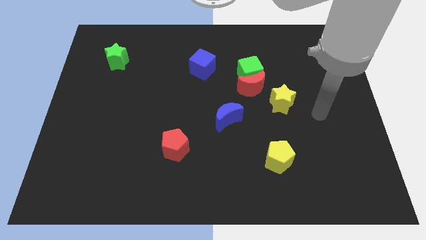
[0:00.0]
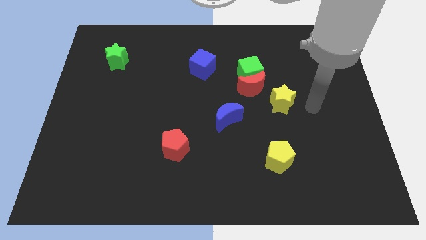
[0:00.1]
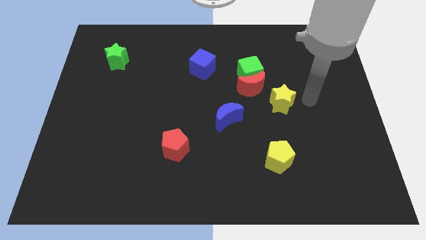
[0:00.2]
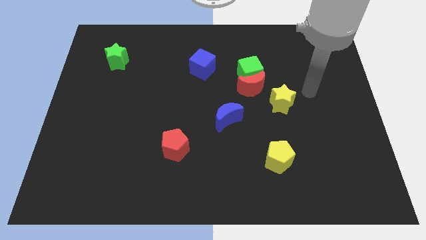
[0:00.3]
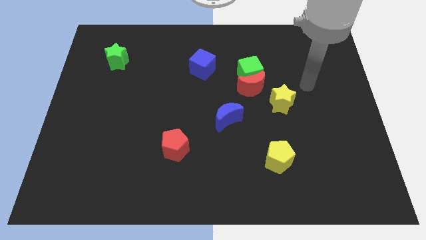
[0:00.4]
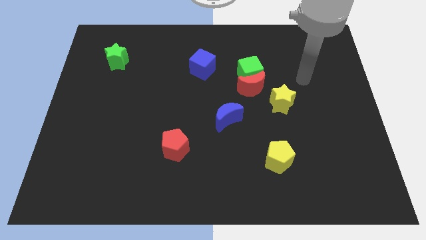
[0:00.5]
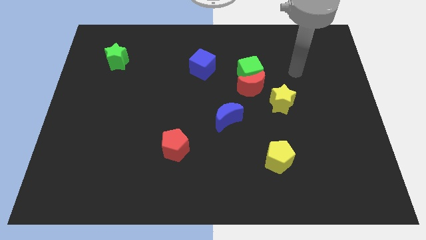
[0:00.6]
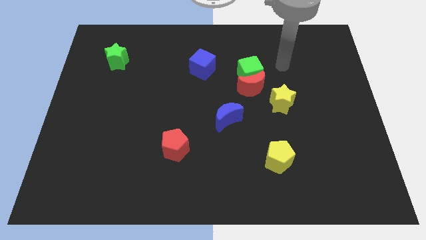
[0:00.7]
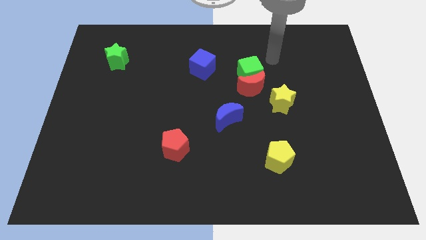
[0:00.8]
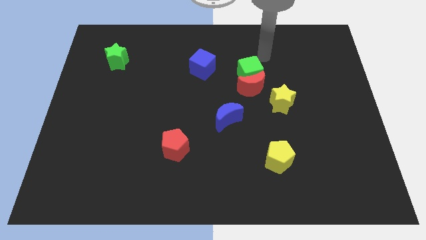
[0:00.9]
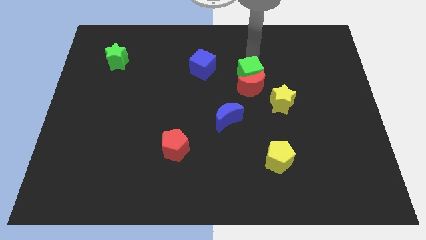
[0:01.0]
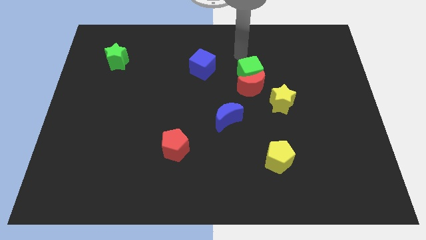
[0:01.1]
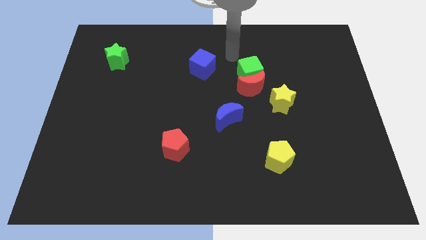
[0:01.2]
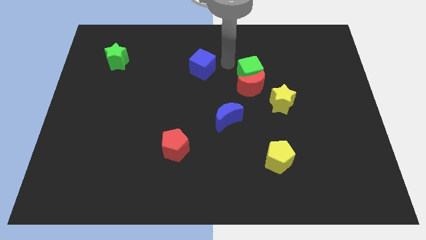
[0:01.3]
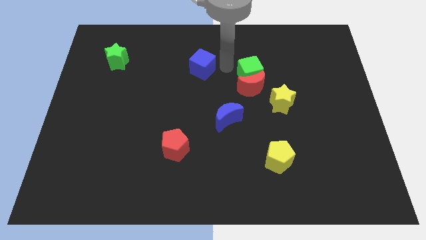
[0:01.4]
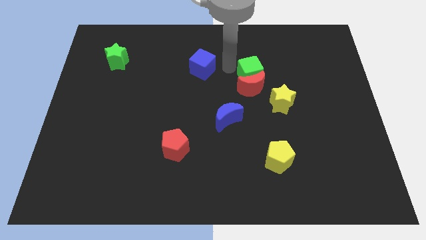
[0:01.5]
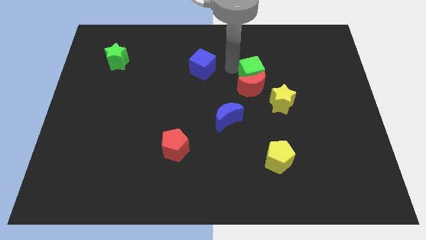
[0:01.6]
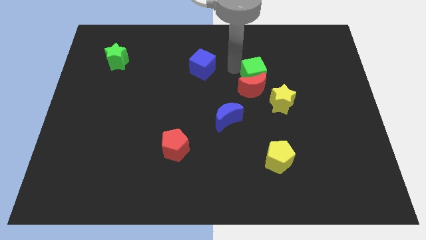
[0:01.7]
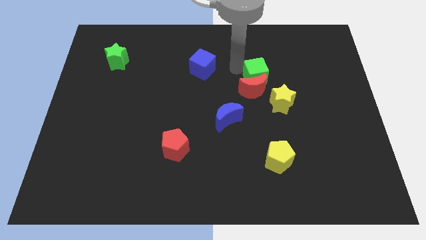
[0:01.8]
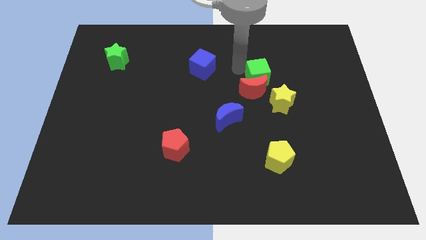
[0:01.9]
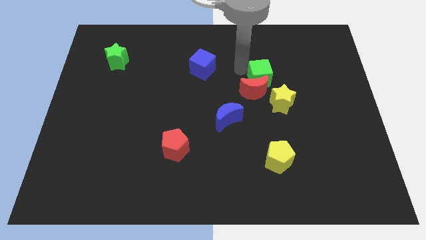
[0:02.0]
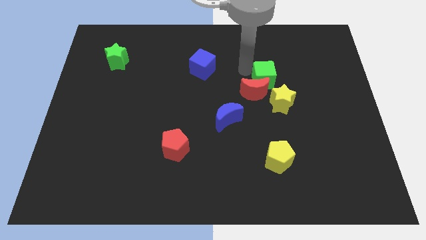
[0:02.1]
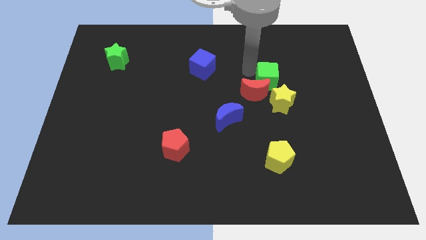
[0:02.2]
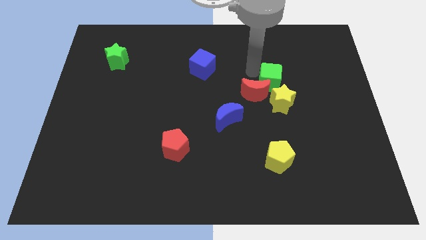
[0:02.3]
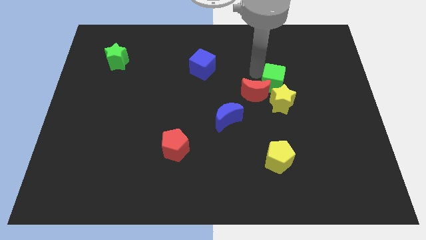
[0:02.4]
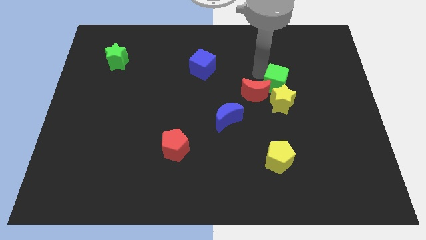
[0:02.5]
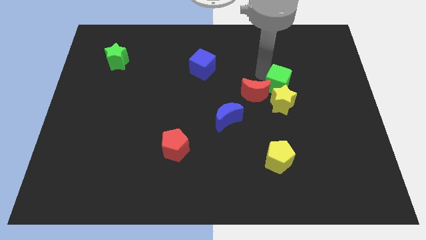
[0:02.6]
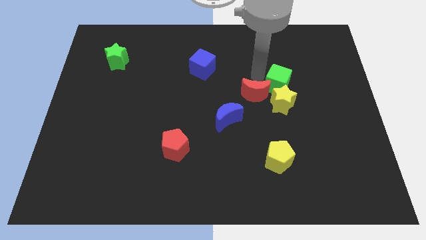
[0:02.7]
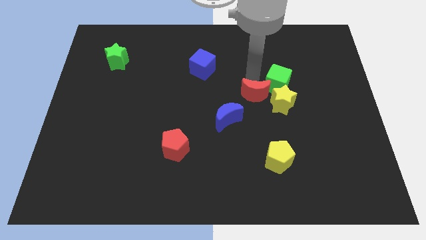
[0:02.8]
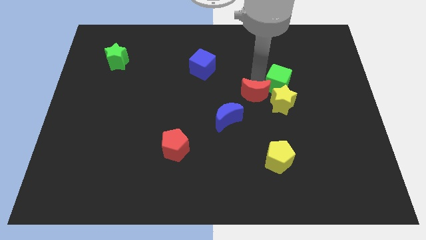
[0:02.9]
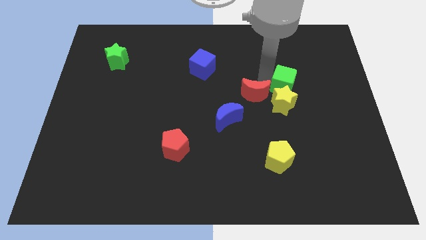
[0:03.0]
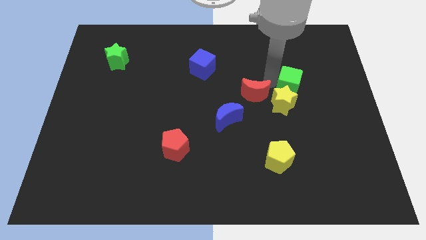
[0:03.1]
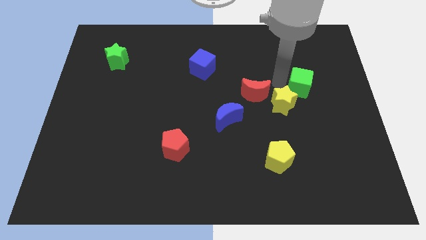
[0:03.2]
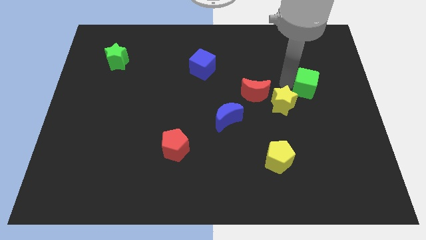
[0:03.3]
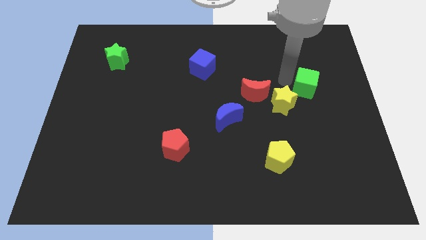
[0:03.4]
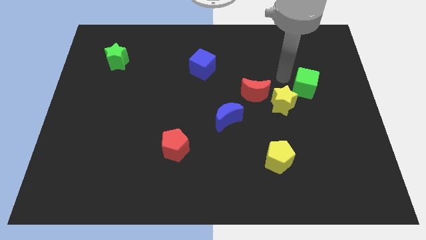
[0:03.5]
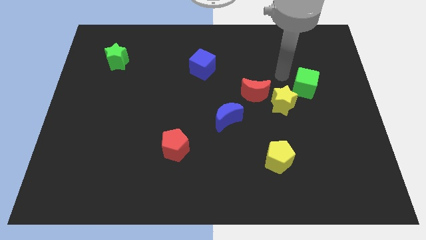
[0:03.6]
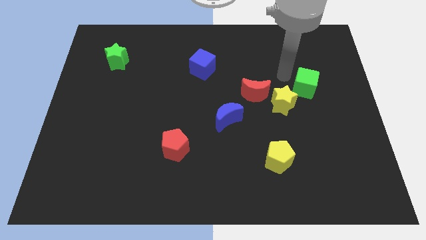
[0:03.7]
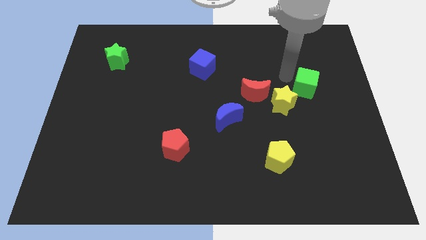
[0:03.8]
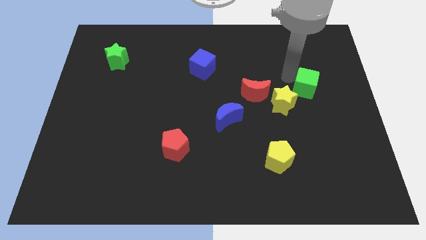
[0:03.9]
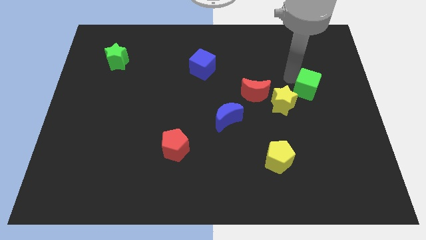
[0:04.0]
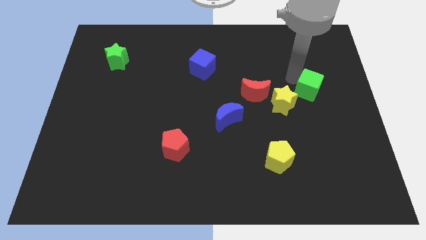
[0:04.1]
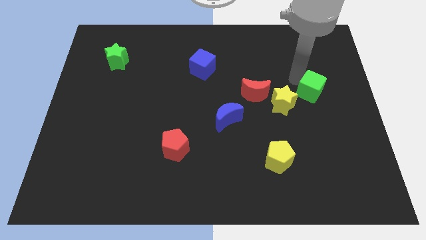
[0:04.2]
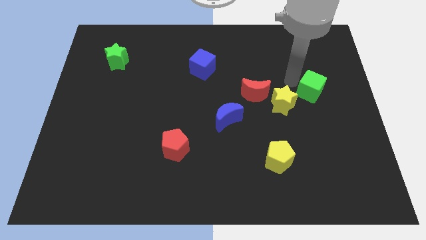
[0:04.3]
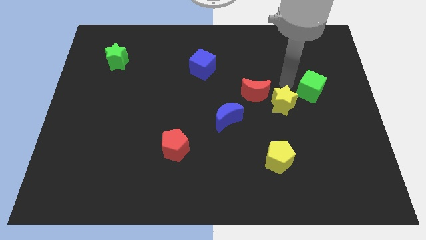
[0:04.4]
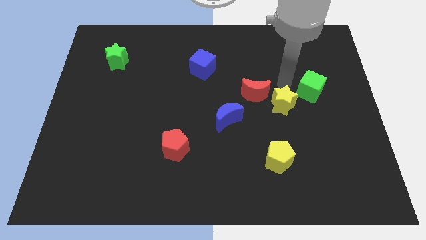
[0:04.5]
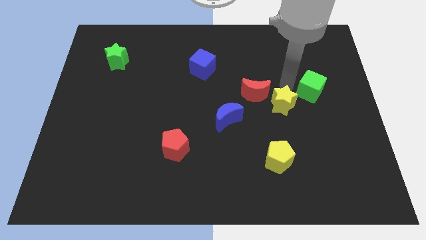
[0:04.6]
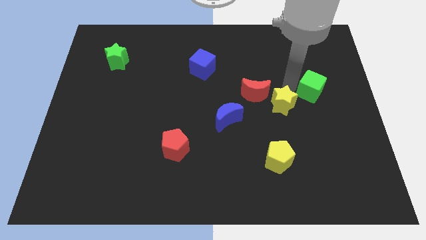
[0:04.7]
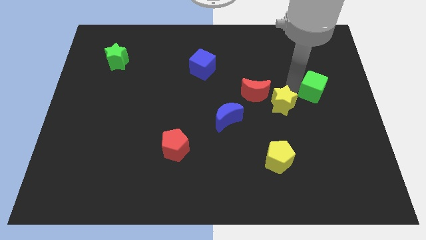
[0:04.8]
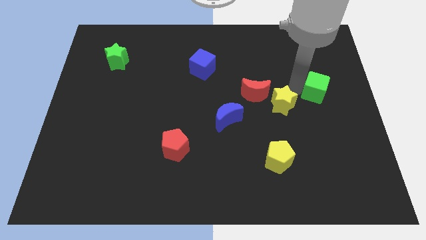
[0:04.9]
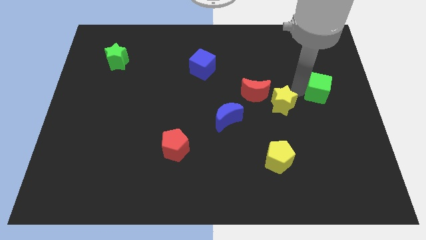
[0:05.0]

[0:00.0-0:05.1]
put the green cube to the right side

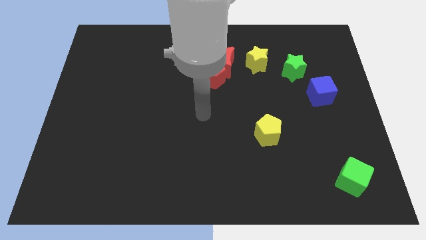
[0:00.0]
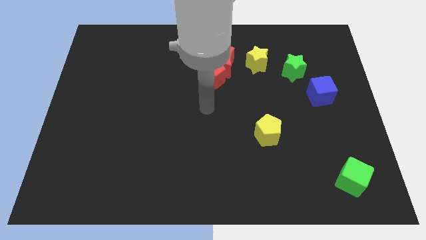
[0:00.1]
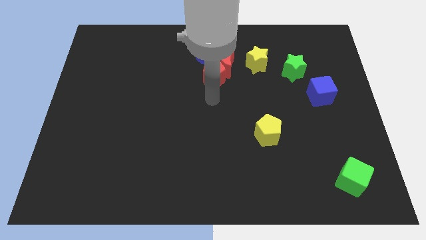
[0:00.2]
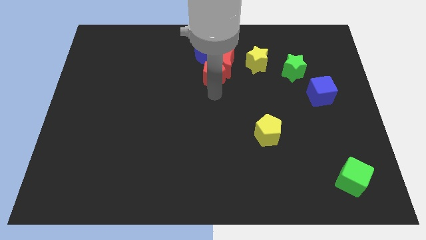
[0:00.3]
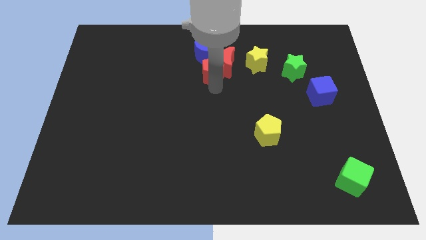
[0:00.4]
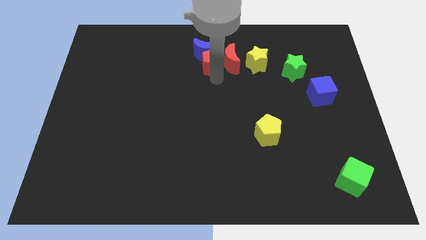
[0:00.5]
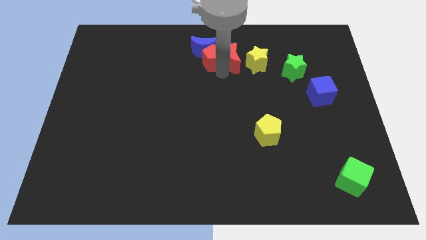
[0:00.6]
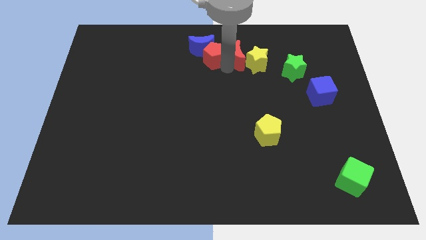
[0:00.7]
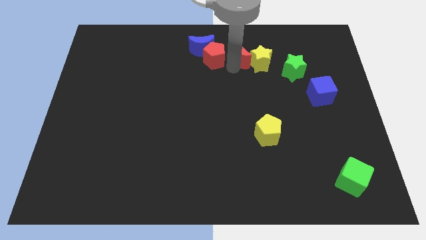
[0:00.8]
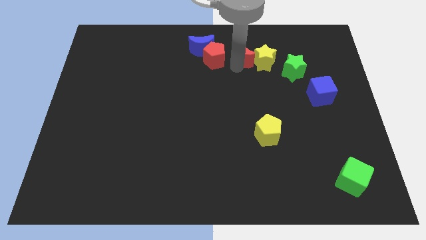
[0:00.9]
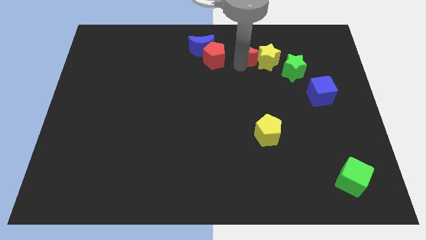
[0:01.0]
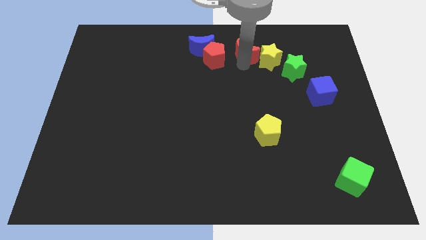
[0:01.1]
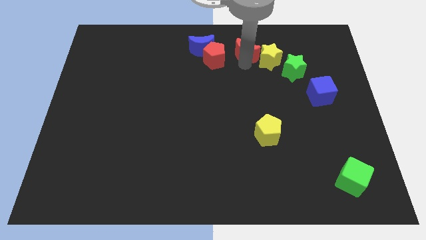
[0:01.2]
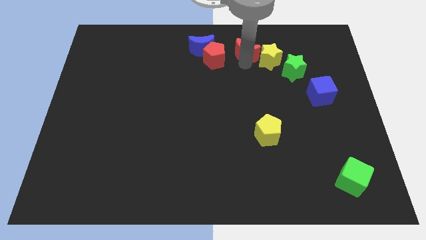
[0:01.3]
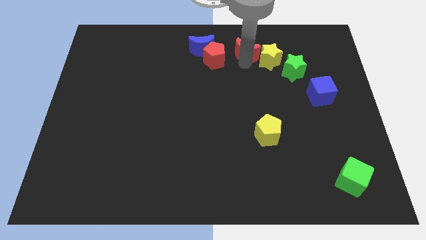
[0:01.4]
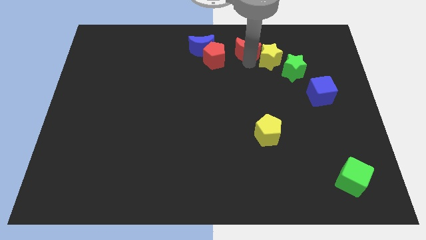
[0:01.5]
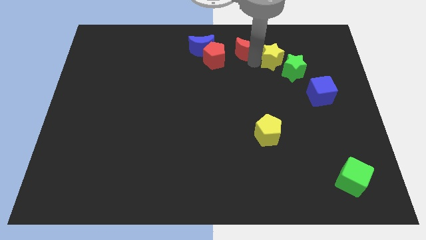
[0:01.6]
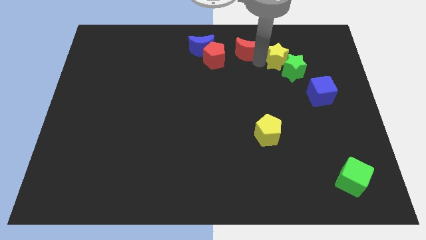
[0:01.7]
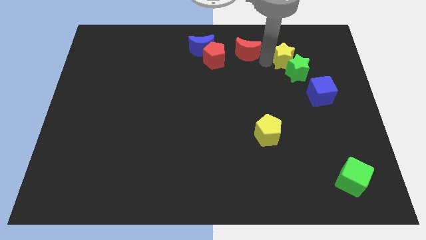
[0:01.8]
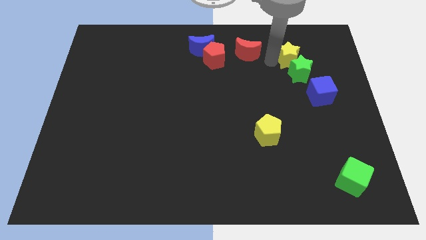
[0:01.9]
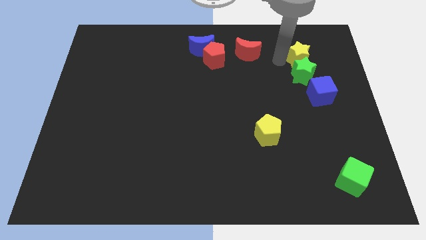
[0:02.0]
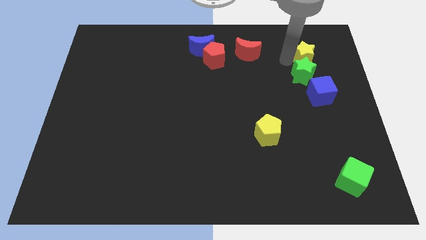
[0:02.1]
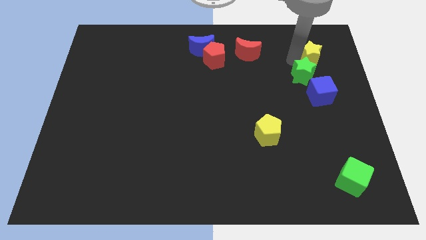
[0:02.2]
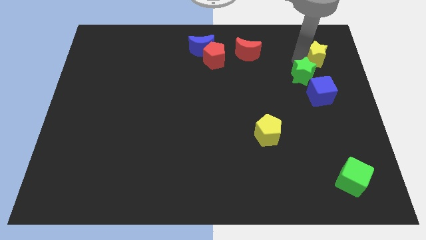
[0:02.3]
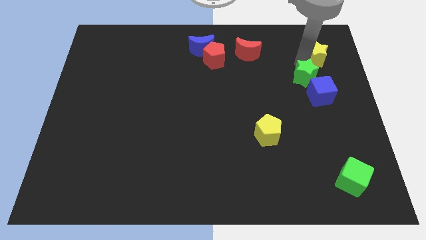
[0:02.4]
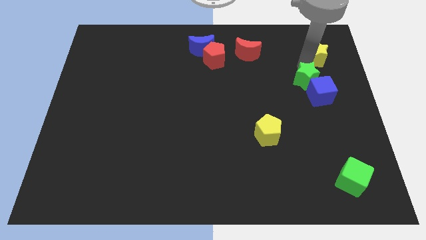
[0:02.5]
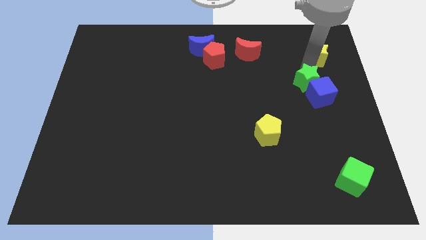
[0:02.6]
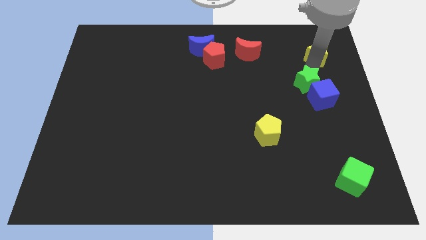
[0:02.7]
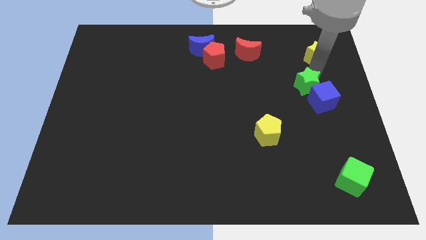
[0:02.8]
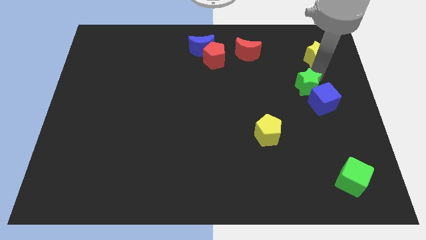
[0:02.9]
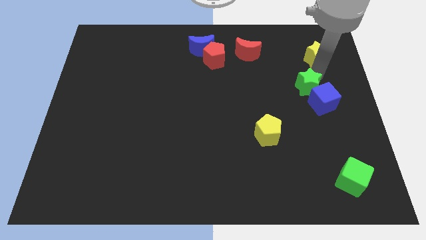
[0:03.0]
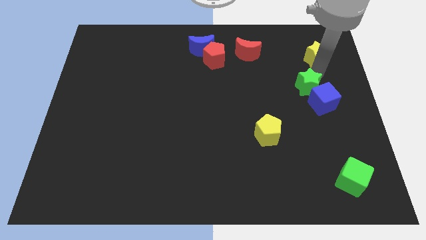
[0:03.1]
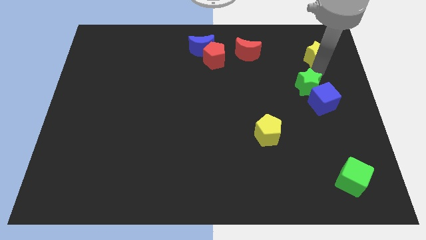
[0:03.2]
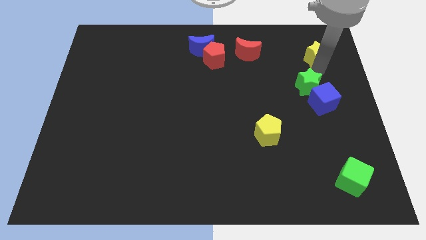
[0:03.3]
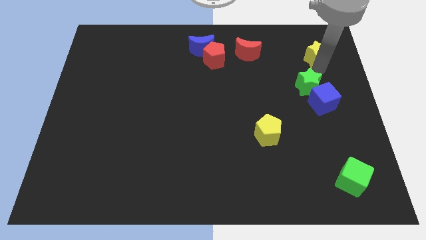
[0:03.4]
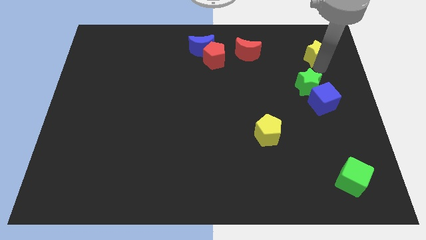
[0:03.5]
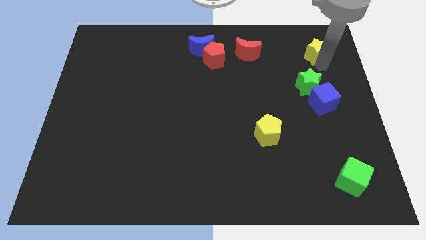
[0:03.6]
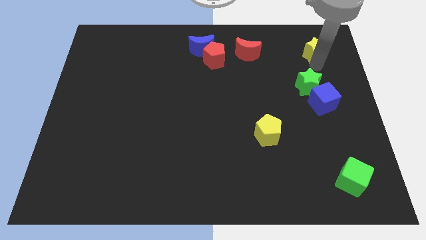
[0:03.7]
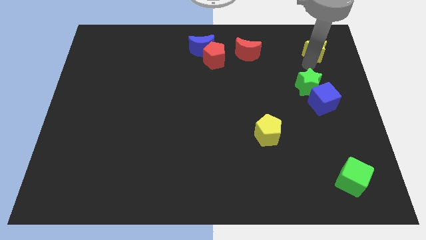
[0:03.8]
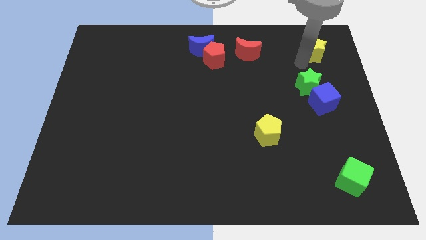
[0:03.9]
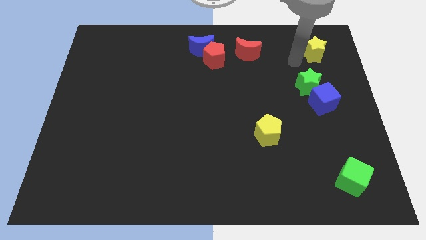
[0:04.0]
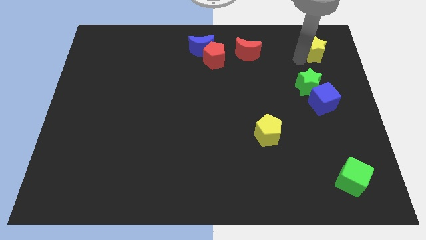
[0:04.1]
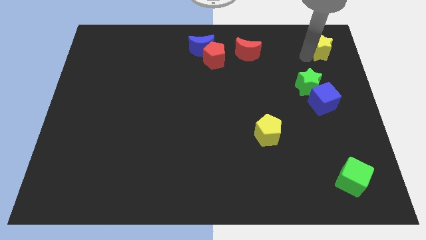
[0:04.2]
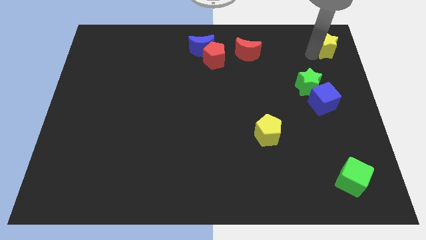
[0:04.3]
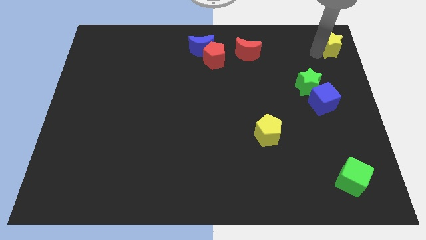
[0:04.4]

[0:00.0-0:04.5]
slide the yellow star to the top right
